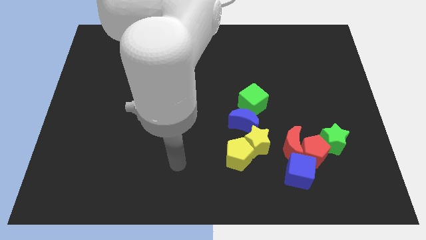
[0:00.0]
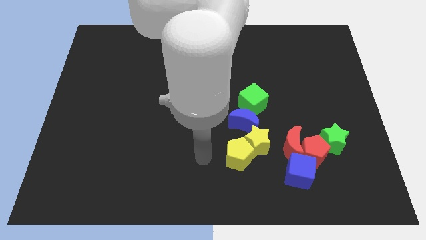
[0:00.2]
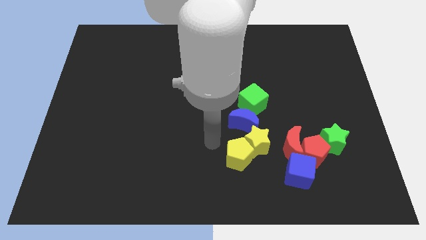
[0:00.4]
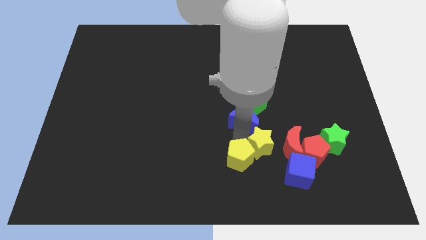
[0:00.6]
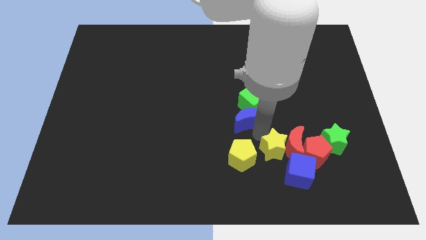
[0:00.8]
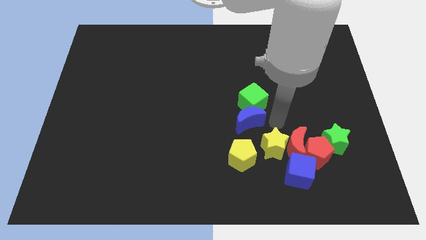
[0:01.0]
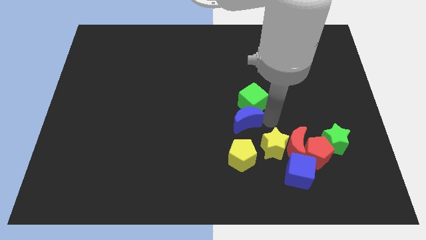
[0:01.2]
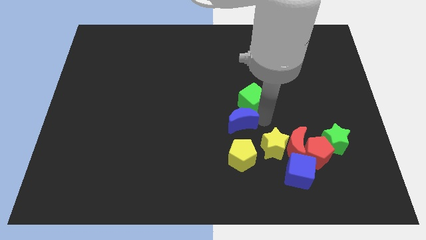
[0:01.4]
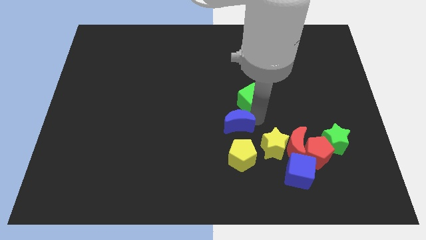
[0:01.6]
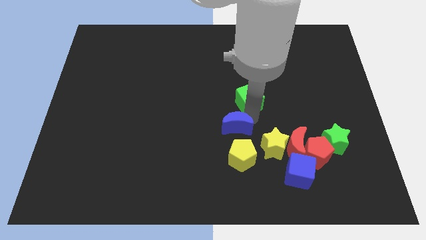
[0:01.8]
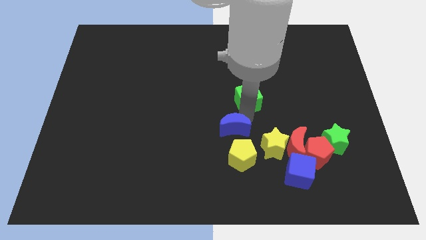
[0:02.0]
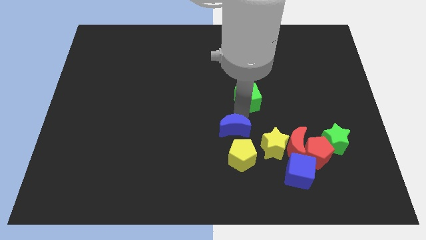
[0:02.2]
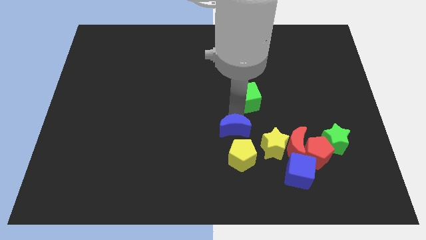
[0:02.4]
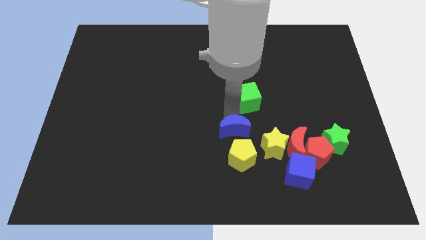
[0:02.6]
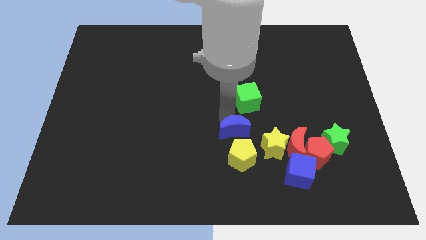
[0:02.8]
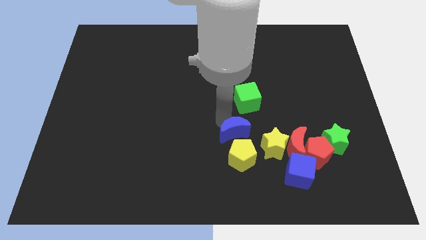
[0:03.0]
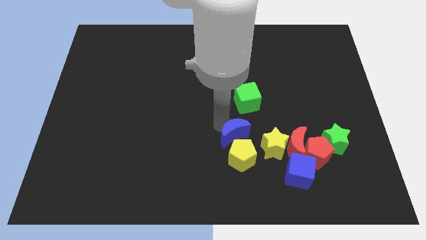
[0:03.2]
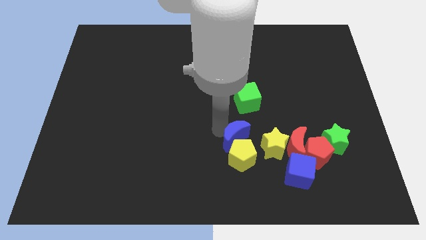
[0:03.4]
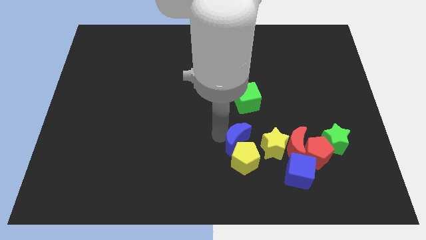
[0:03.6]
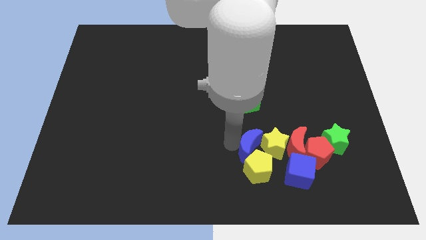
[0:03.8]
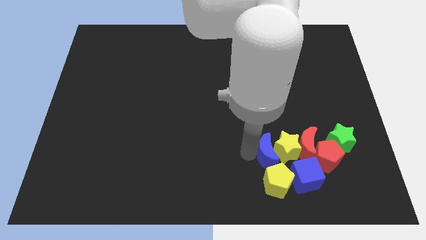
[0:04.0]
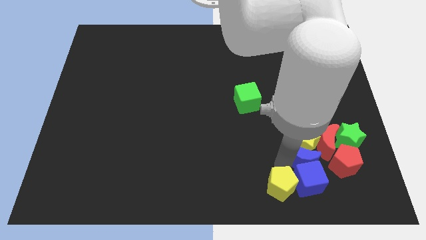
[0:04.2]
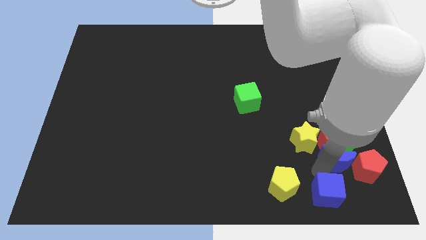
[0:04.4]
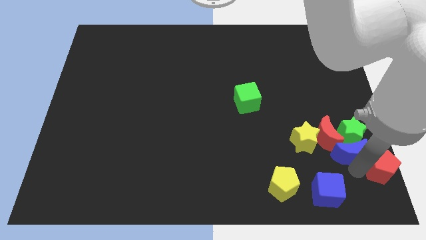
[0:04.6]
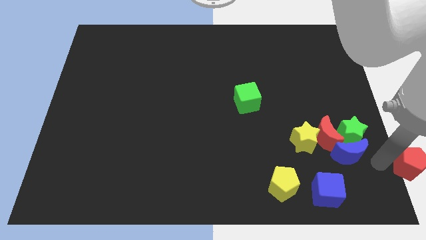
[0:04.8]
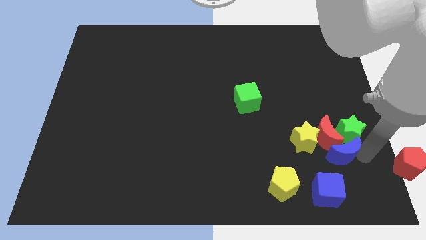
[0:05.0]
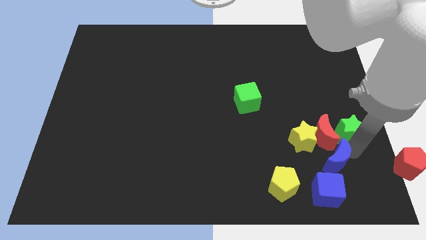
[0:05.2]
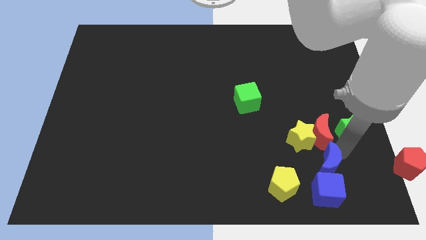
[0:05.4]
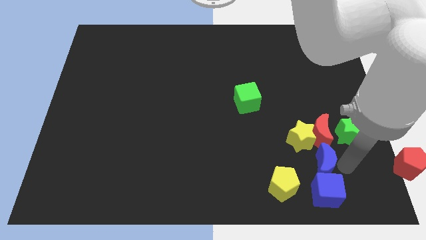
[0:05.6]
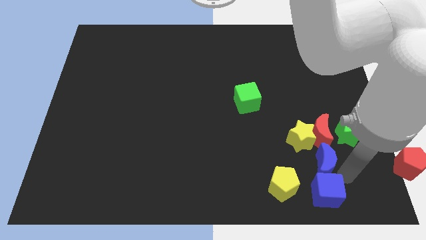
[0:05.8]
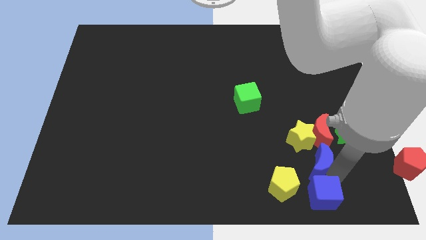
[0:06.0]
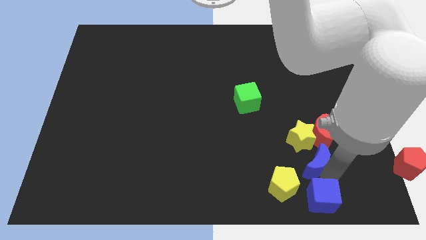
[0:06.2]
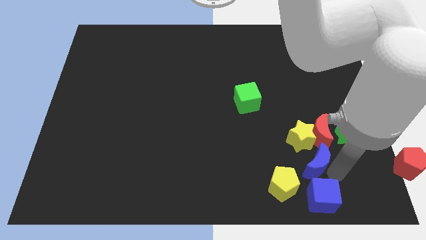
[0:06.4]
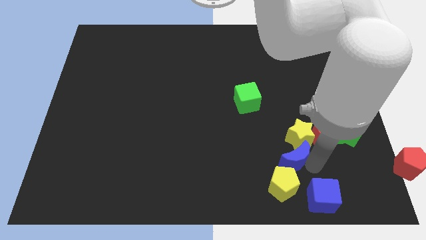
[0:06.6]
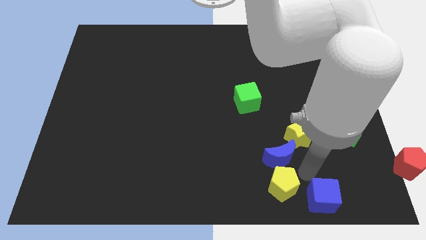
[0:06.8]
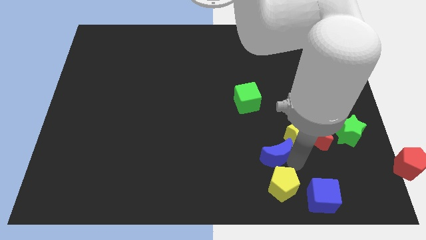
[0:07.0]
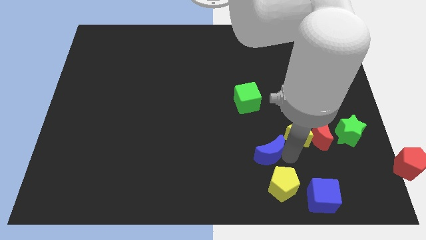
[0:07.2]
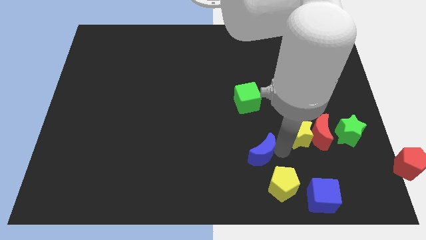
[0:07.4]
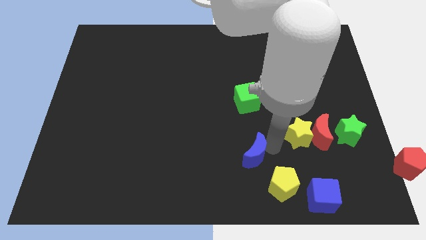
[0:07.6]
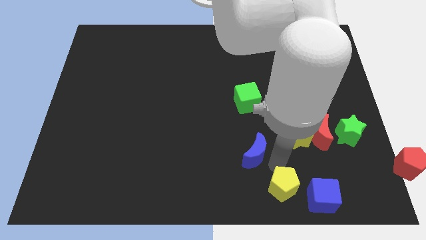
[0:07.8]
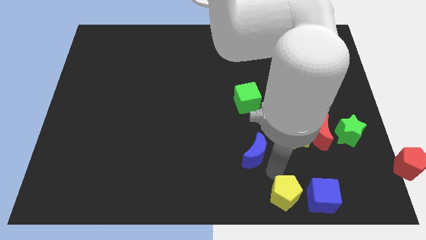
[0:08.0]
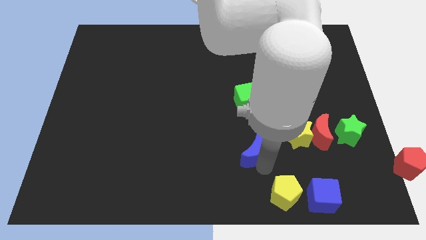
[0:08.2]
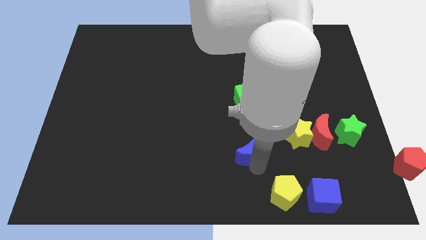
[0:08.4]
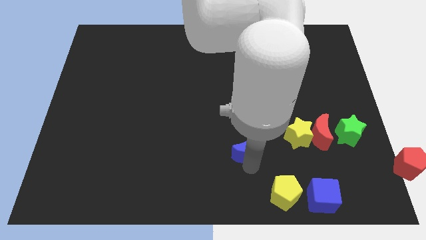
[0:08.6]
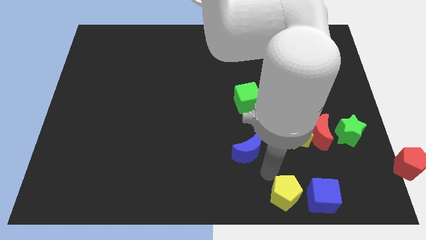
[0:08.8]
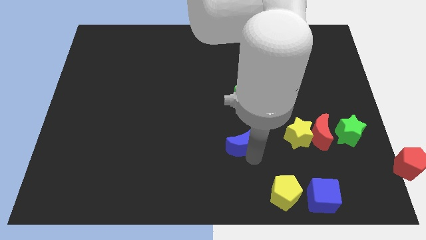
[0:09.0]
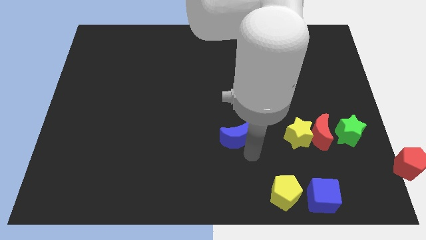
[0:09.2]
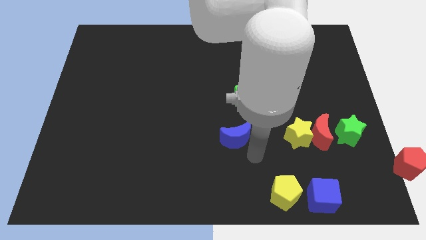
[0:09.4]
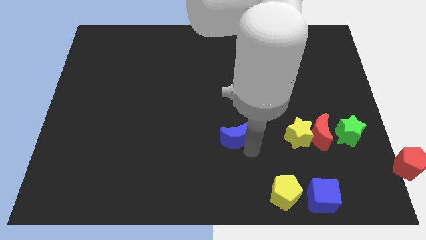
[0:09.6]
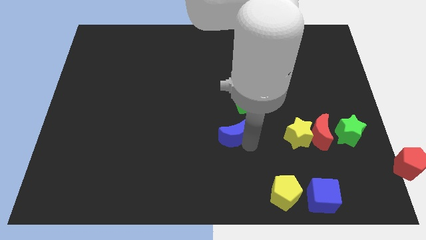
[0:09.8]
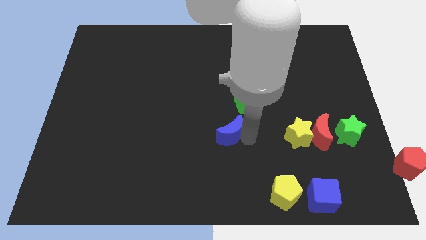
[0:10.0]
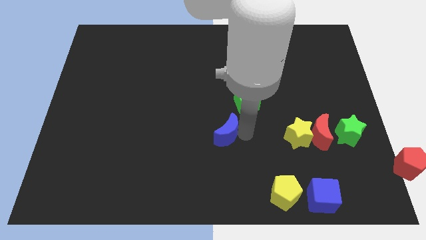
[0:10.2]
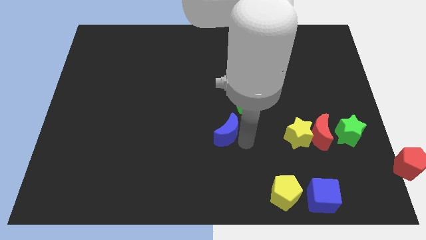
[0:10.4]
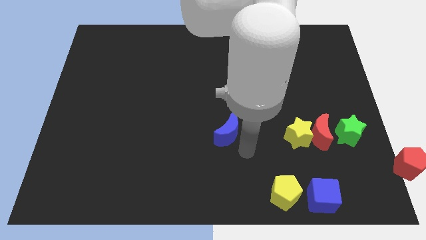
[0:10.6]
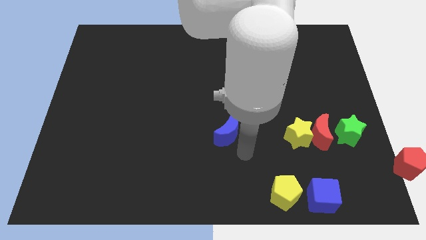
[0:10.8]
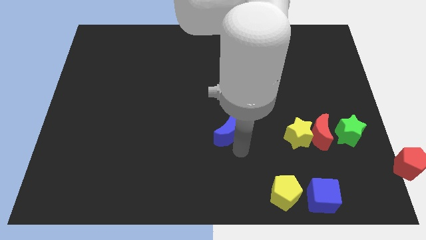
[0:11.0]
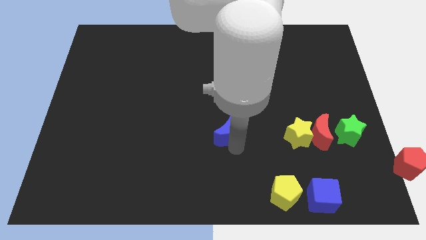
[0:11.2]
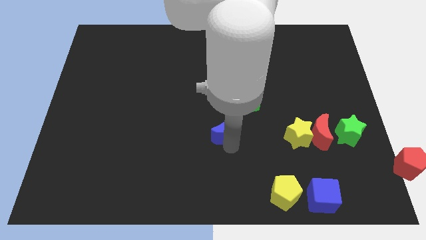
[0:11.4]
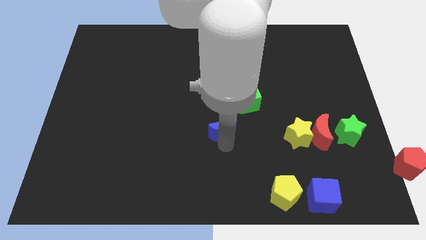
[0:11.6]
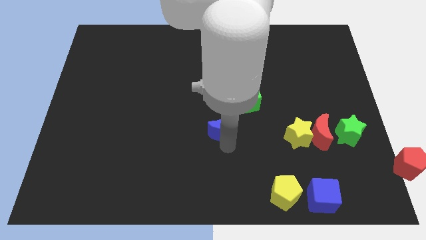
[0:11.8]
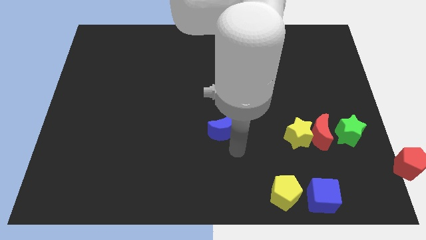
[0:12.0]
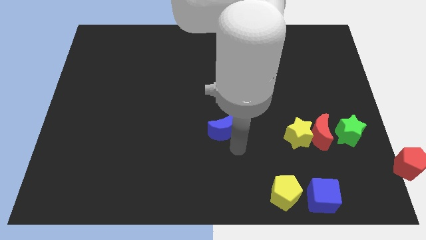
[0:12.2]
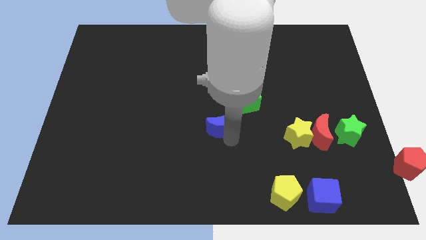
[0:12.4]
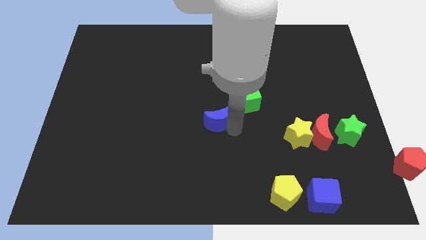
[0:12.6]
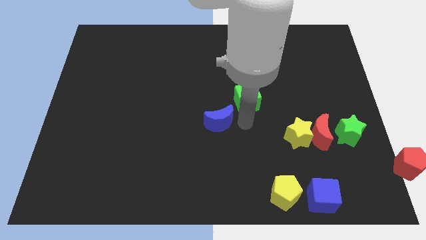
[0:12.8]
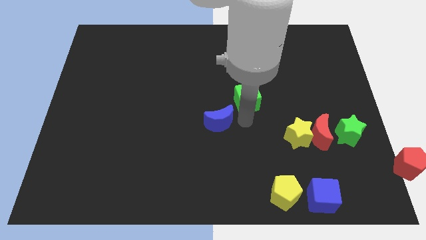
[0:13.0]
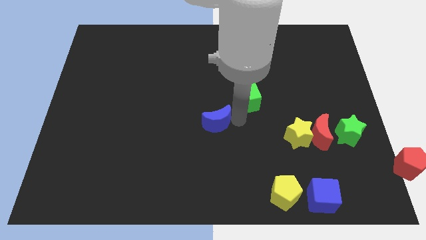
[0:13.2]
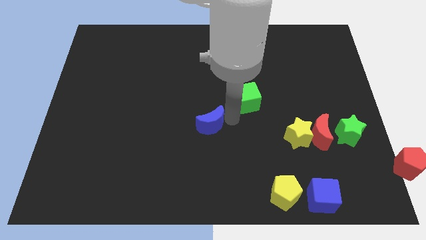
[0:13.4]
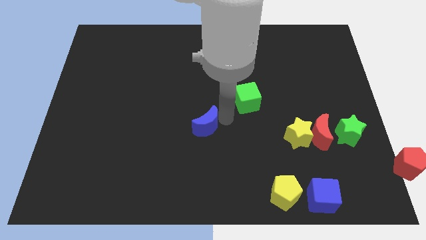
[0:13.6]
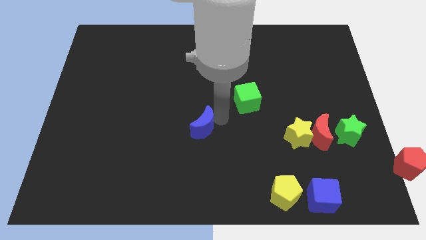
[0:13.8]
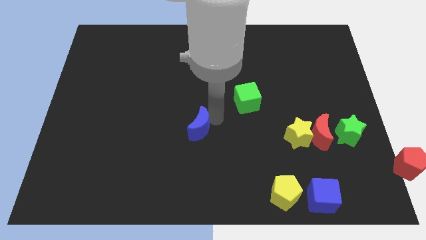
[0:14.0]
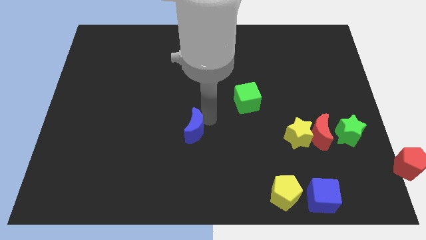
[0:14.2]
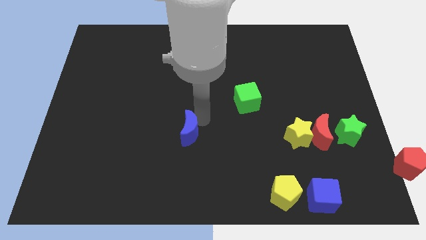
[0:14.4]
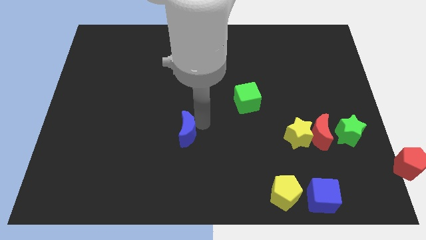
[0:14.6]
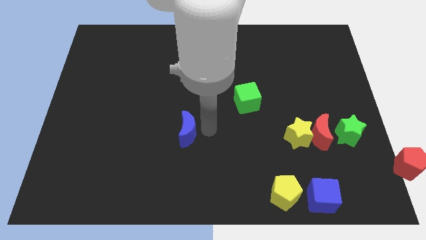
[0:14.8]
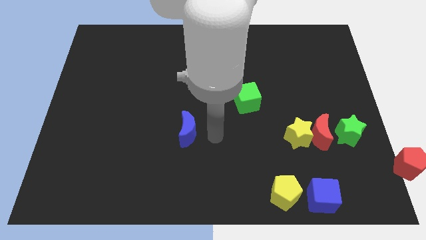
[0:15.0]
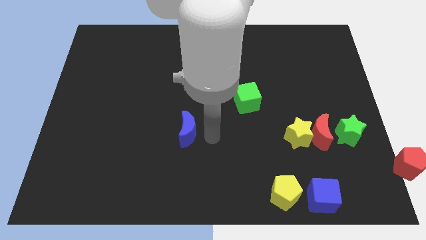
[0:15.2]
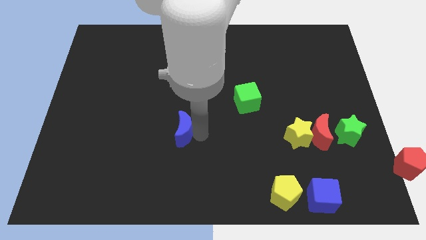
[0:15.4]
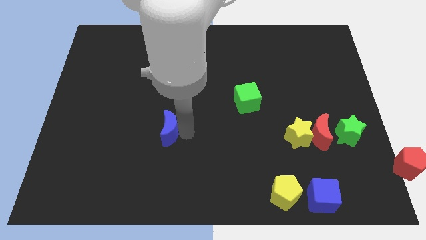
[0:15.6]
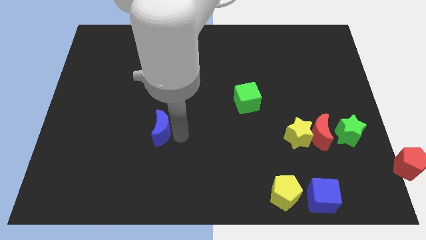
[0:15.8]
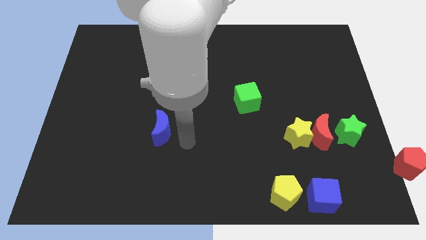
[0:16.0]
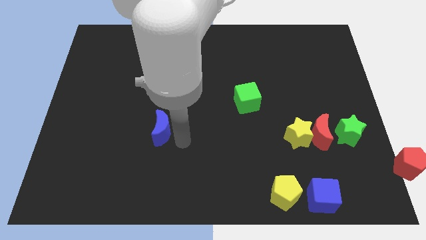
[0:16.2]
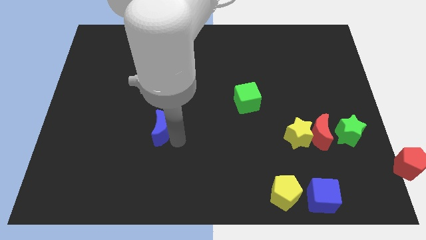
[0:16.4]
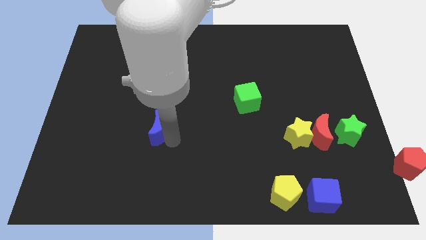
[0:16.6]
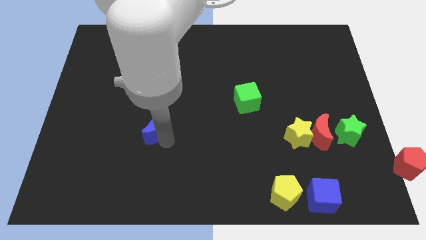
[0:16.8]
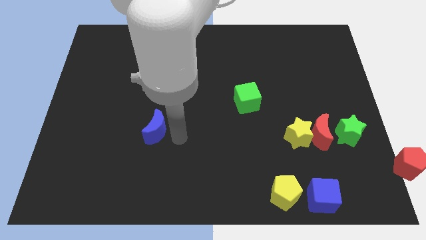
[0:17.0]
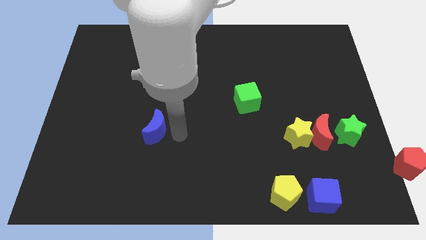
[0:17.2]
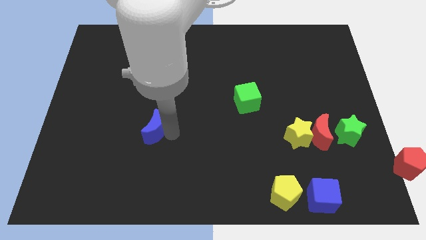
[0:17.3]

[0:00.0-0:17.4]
slide the blue moon left
